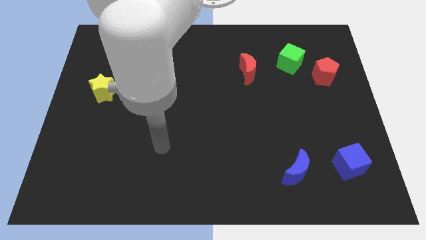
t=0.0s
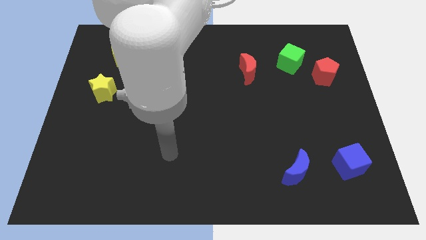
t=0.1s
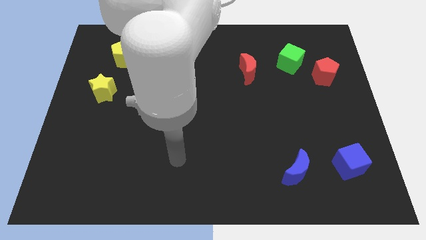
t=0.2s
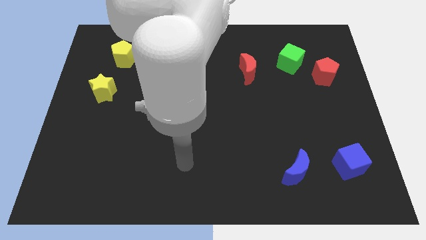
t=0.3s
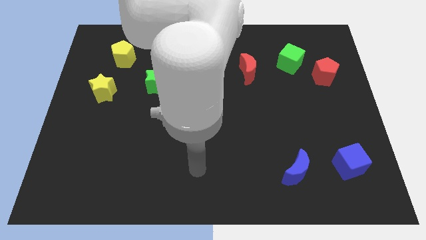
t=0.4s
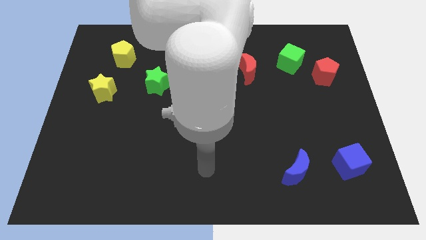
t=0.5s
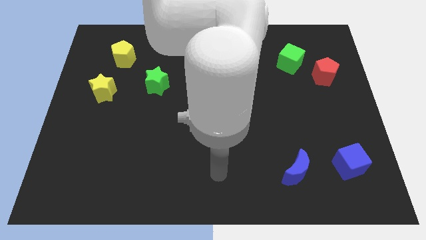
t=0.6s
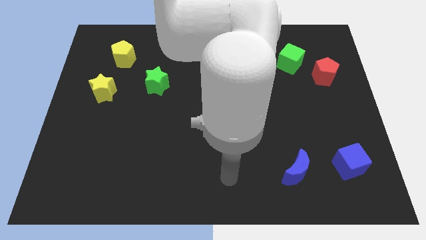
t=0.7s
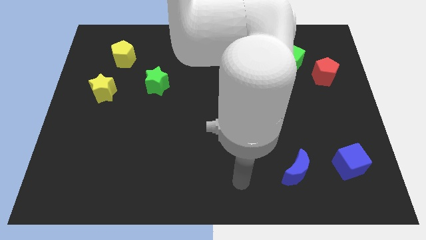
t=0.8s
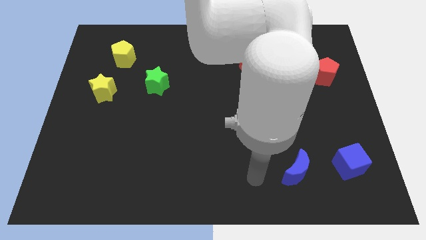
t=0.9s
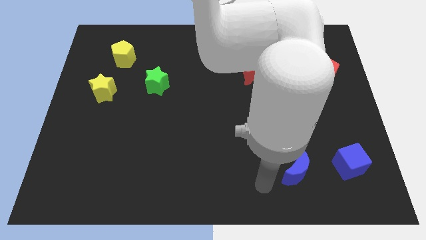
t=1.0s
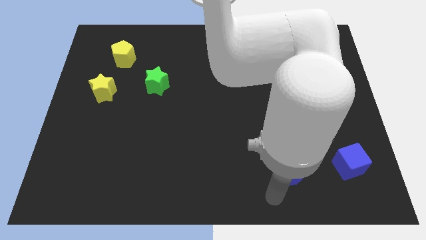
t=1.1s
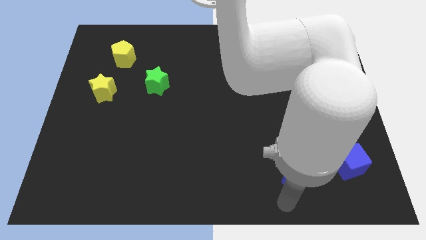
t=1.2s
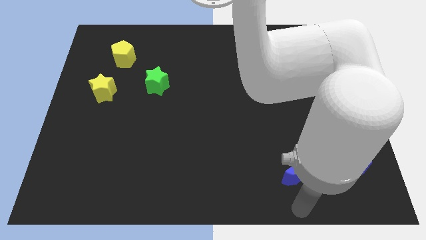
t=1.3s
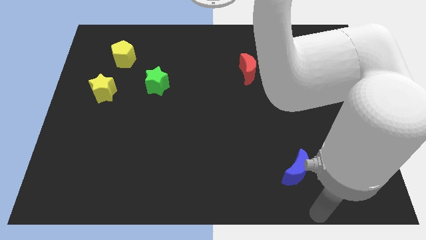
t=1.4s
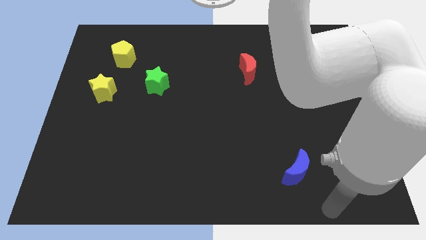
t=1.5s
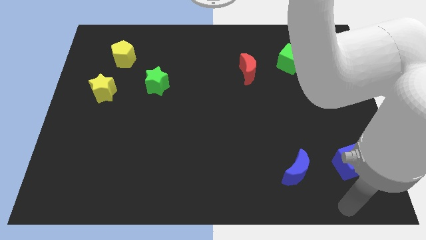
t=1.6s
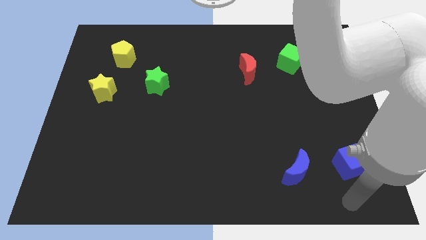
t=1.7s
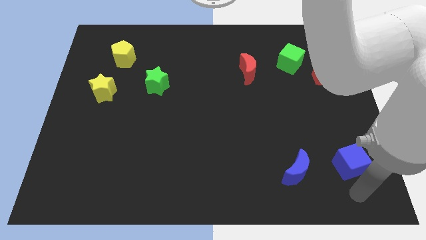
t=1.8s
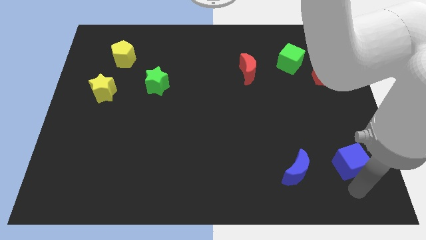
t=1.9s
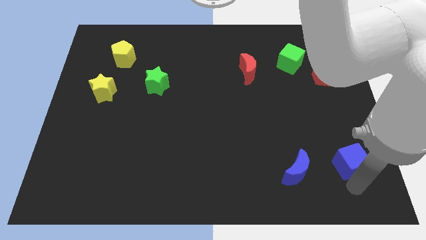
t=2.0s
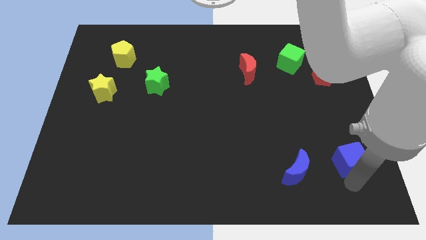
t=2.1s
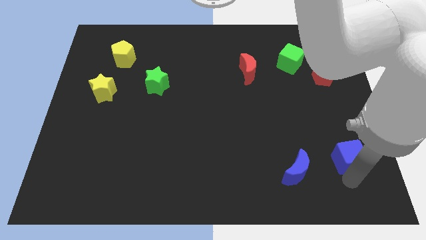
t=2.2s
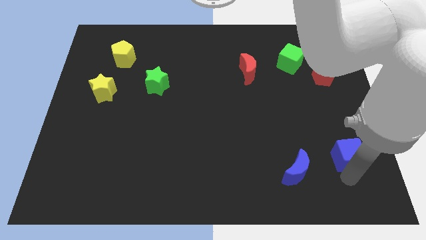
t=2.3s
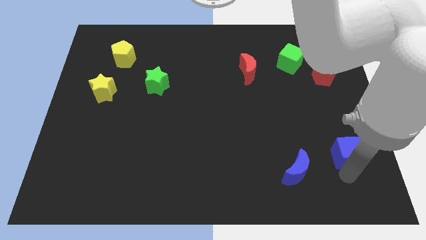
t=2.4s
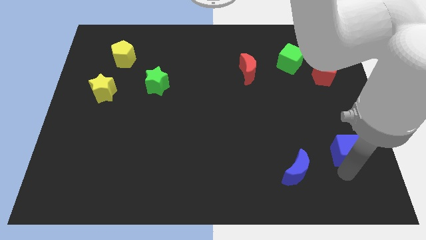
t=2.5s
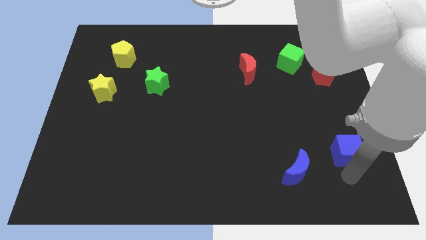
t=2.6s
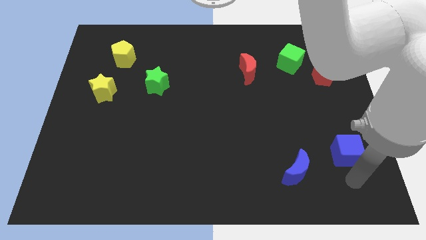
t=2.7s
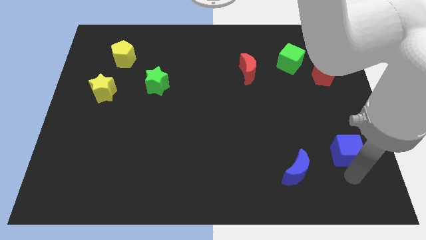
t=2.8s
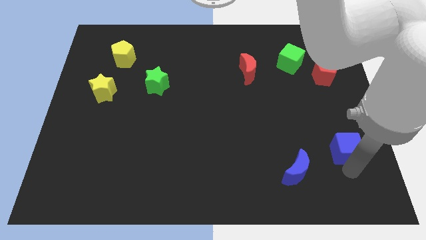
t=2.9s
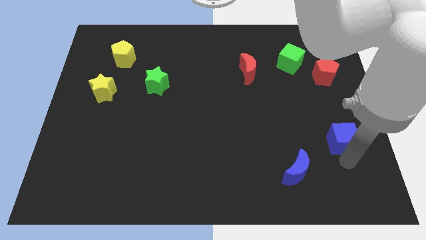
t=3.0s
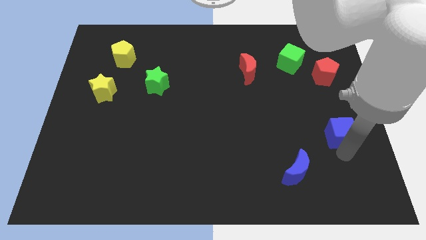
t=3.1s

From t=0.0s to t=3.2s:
slide the blue cube slightly upwards

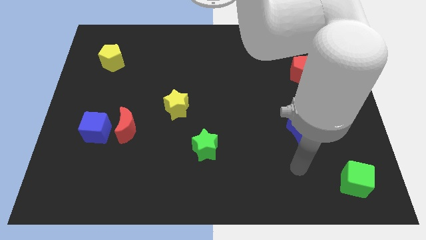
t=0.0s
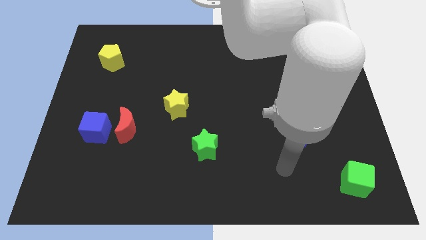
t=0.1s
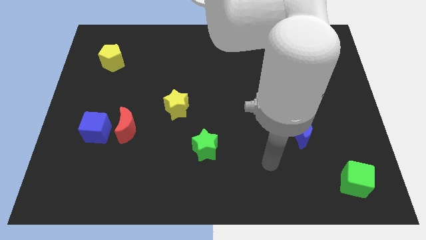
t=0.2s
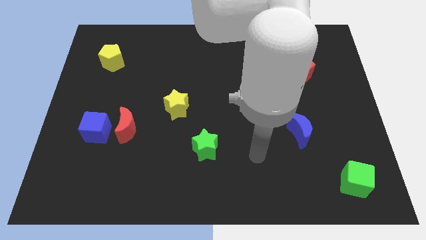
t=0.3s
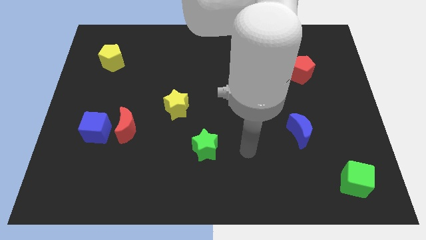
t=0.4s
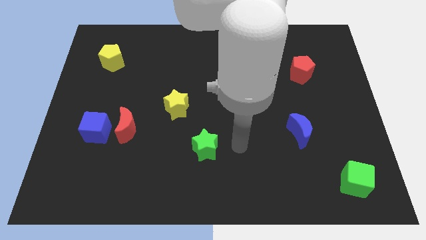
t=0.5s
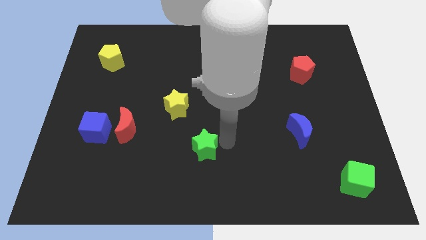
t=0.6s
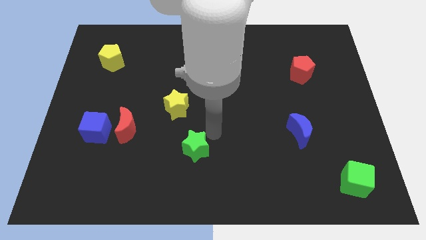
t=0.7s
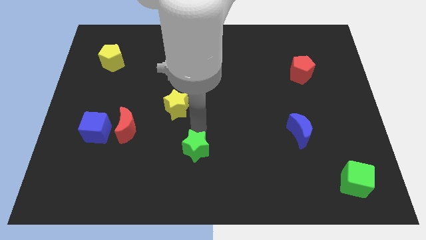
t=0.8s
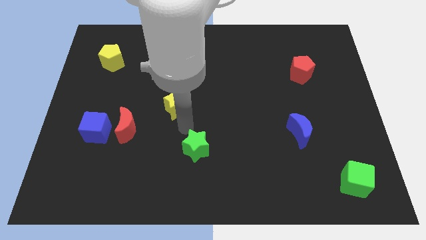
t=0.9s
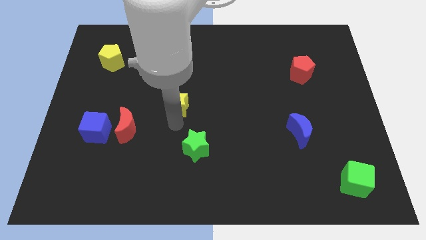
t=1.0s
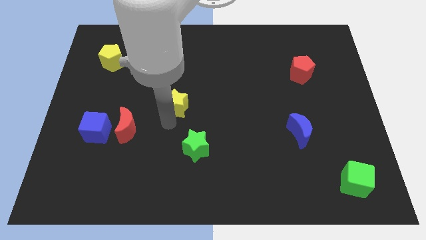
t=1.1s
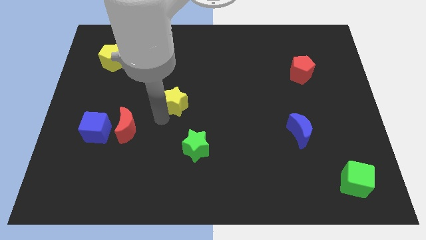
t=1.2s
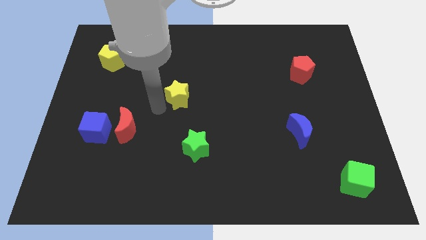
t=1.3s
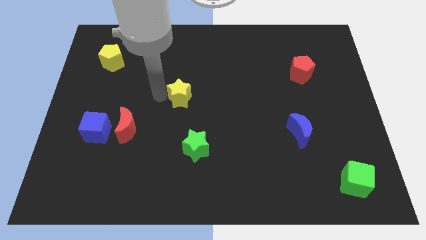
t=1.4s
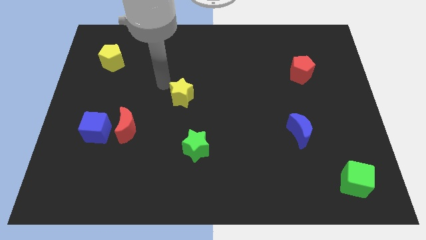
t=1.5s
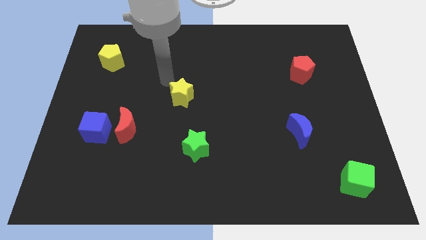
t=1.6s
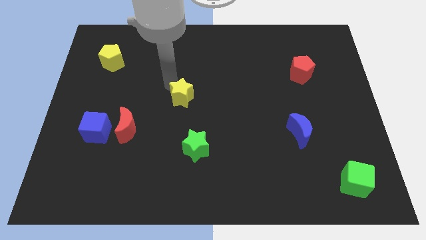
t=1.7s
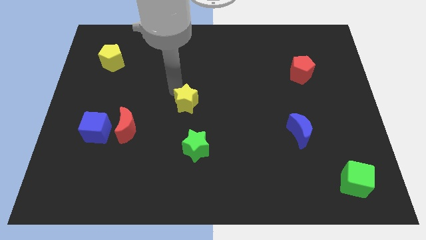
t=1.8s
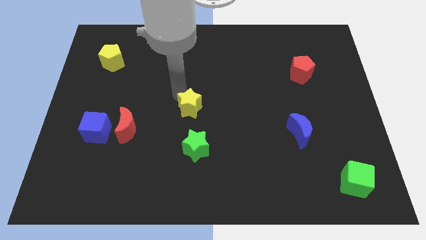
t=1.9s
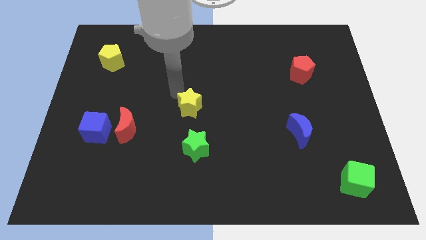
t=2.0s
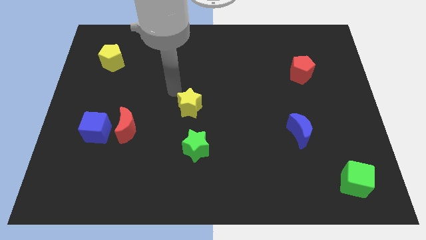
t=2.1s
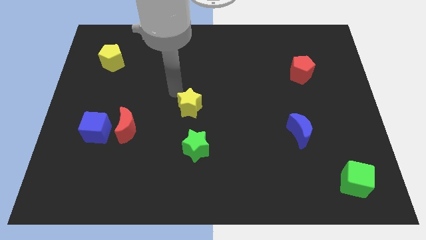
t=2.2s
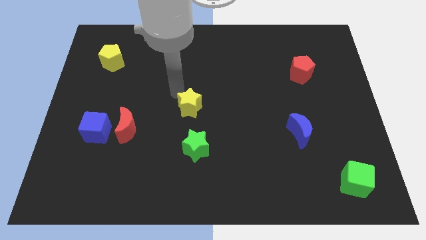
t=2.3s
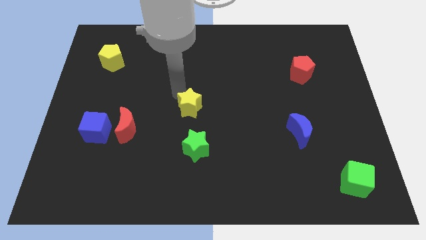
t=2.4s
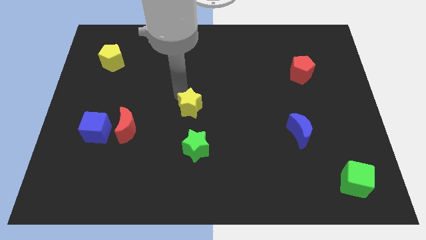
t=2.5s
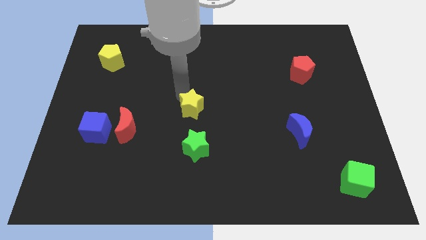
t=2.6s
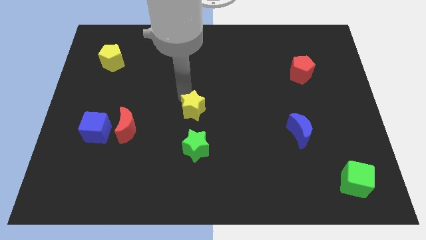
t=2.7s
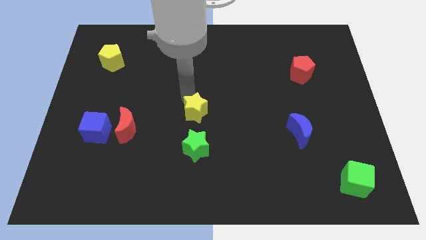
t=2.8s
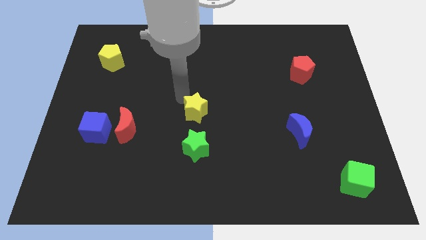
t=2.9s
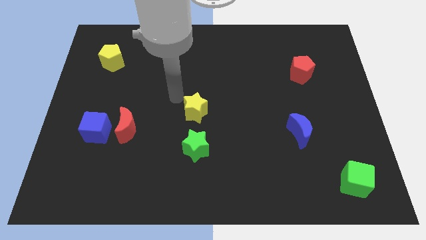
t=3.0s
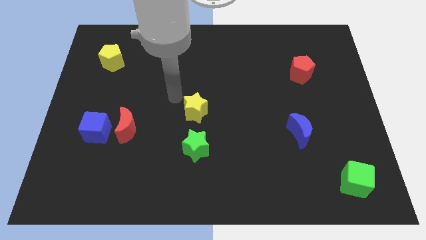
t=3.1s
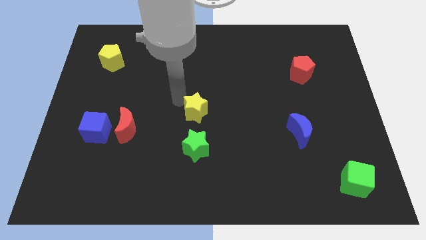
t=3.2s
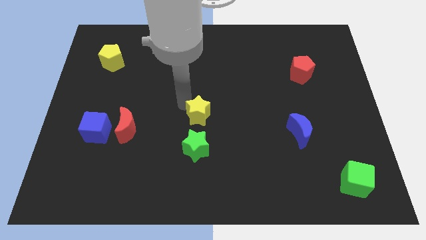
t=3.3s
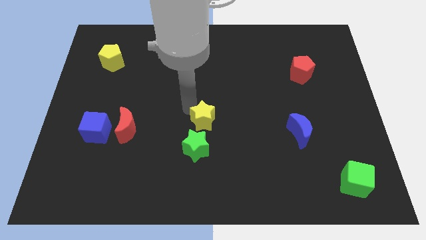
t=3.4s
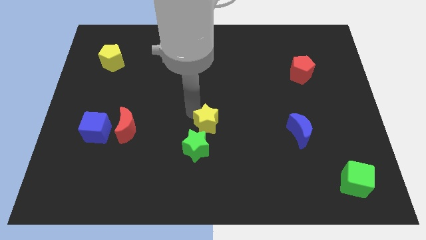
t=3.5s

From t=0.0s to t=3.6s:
slightly move the yellow star diagonally downwards and to the right

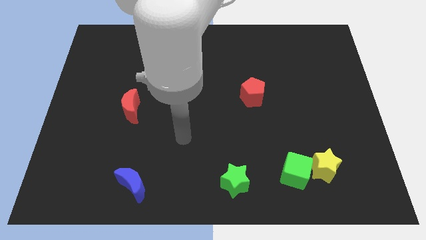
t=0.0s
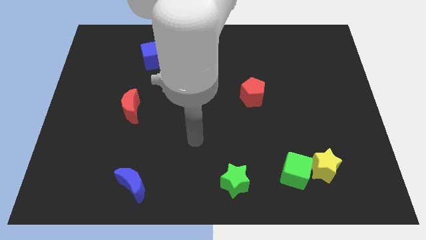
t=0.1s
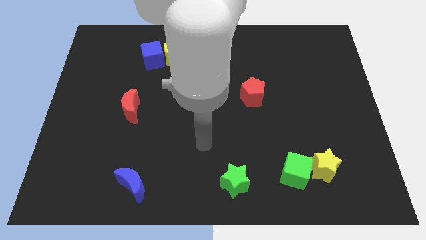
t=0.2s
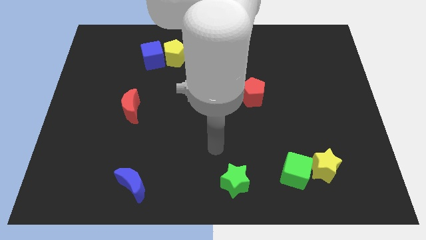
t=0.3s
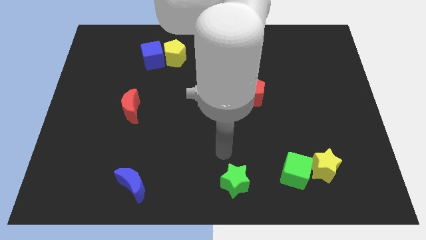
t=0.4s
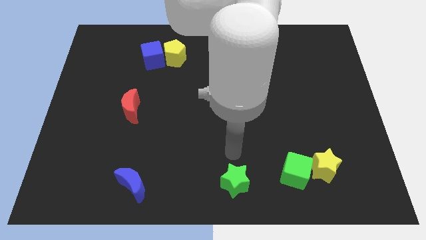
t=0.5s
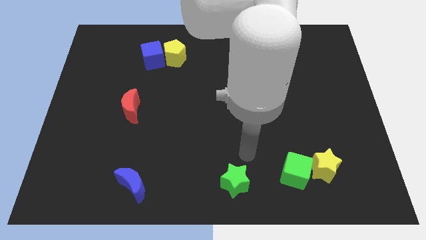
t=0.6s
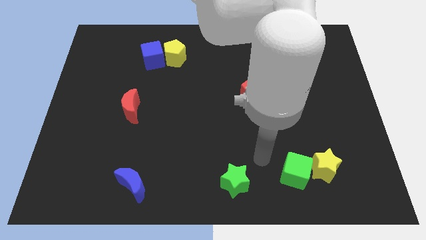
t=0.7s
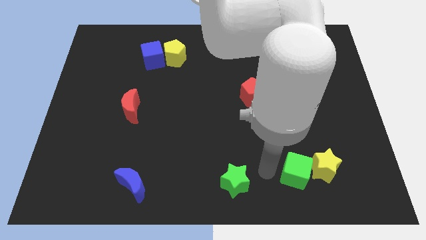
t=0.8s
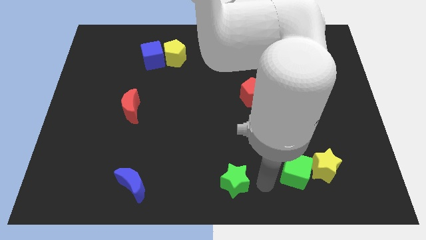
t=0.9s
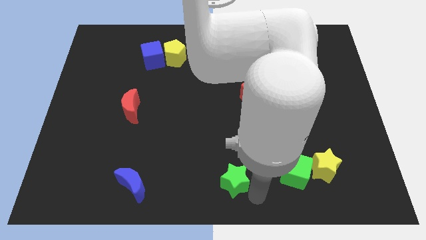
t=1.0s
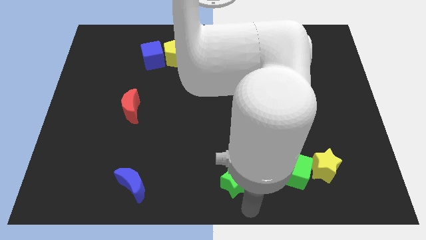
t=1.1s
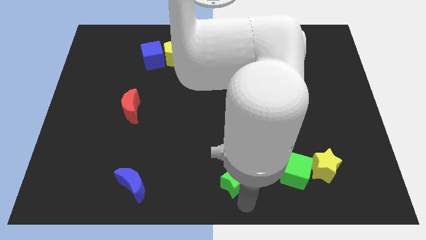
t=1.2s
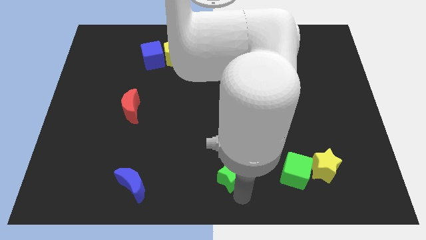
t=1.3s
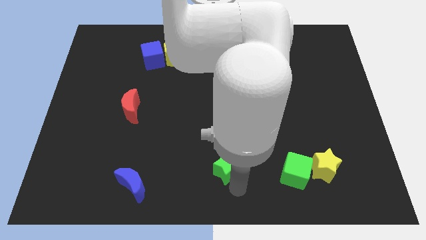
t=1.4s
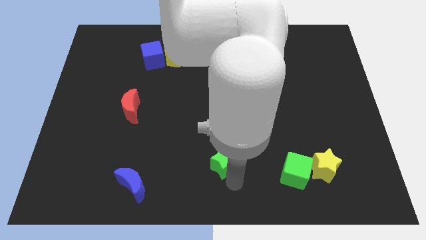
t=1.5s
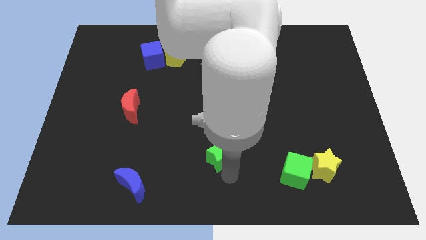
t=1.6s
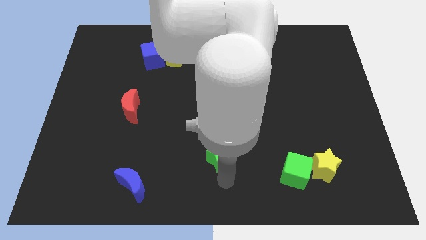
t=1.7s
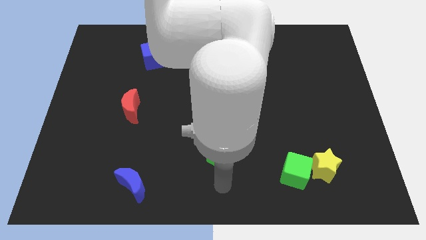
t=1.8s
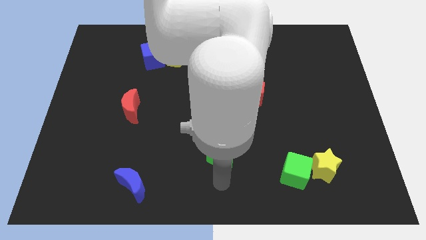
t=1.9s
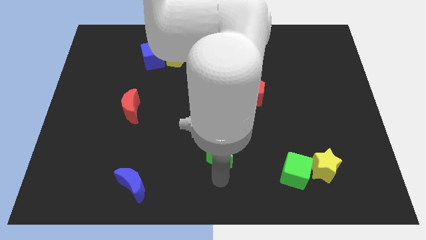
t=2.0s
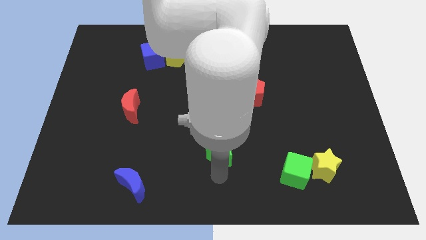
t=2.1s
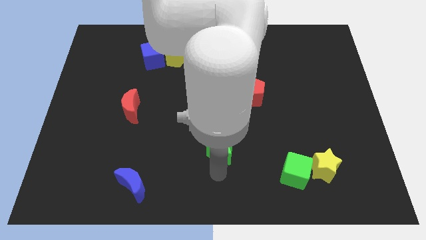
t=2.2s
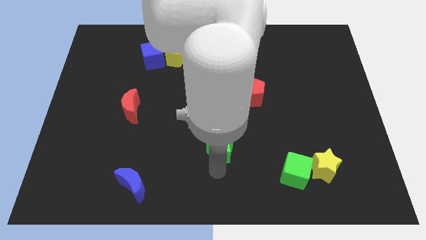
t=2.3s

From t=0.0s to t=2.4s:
slightly push the green star up
